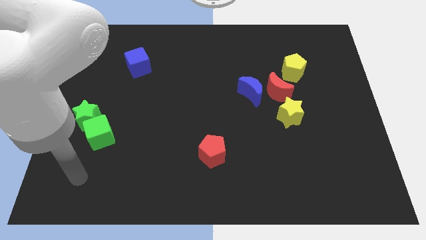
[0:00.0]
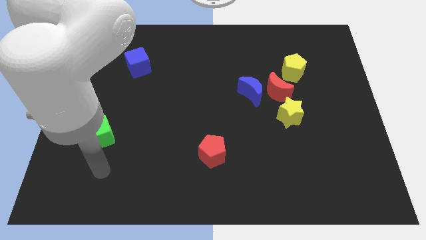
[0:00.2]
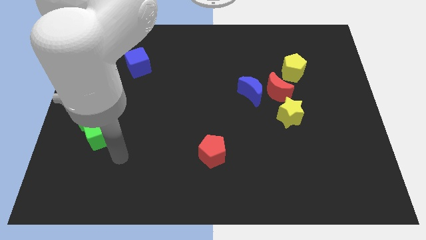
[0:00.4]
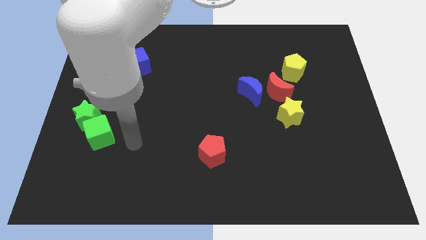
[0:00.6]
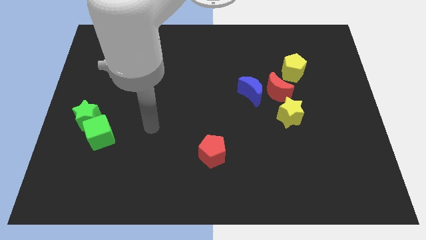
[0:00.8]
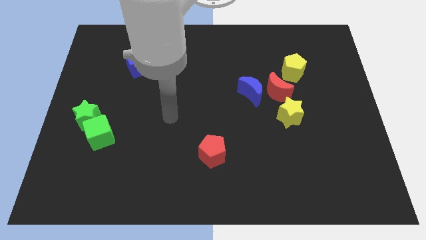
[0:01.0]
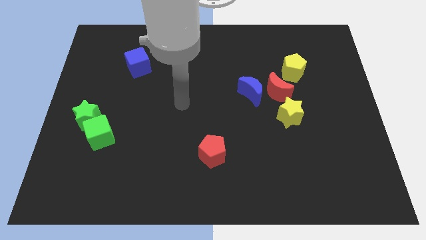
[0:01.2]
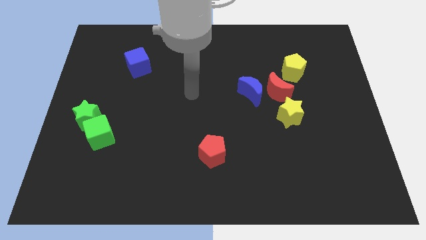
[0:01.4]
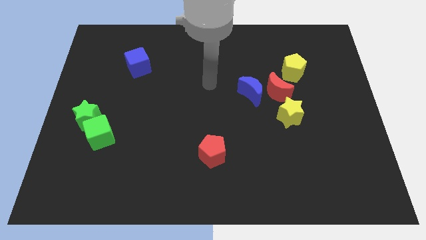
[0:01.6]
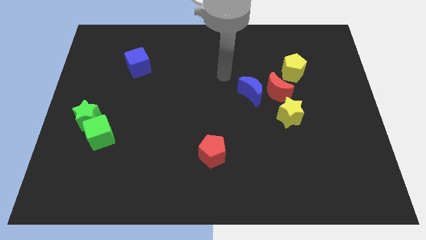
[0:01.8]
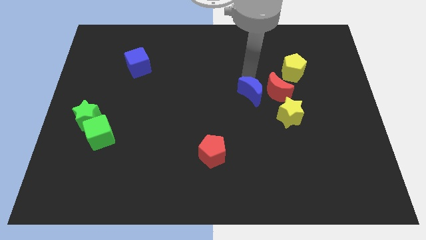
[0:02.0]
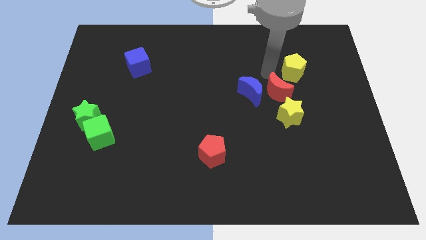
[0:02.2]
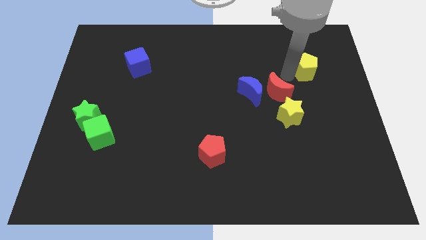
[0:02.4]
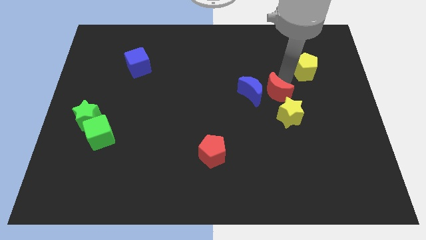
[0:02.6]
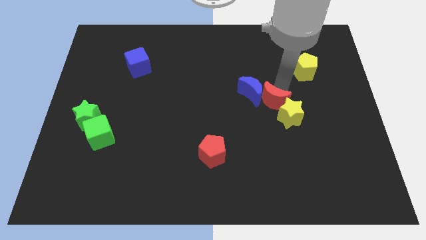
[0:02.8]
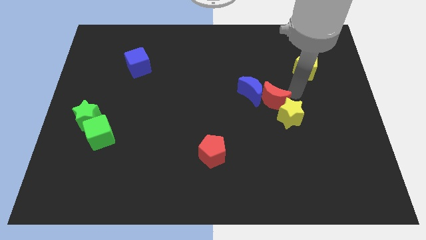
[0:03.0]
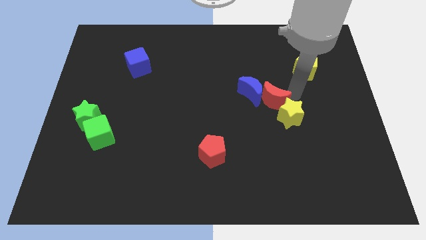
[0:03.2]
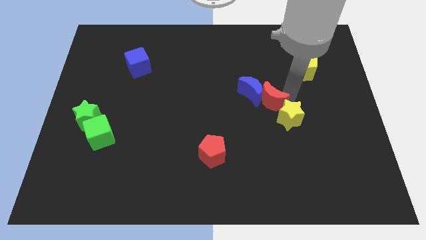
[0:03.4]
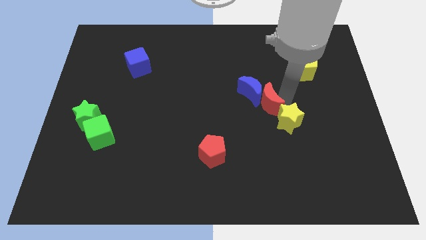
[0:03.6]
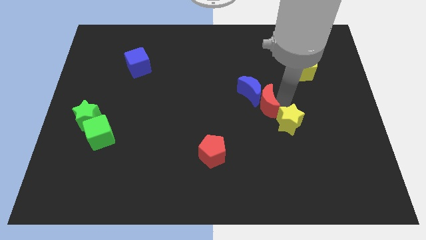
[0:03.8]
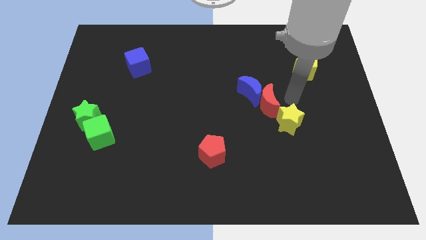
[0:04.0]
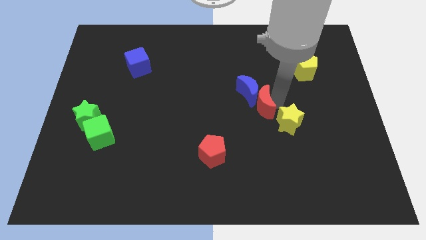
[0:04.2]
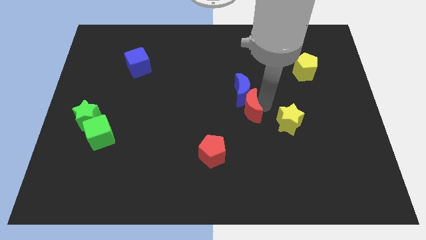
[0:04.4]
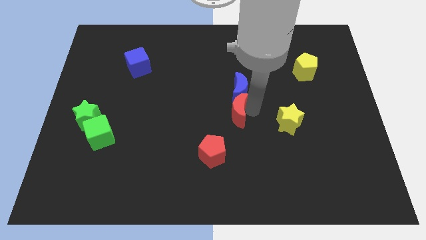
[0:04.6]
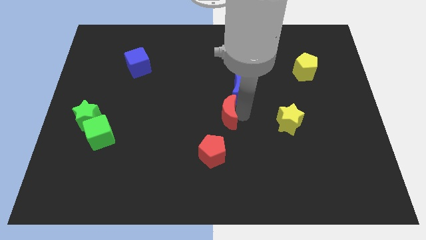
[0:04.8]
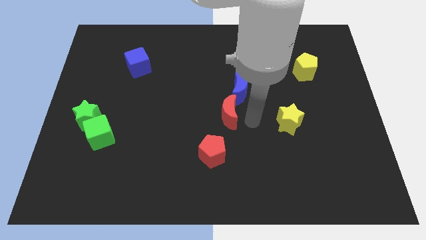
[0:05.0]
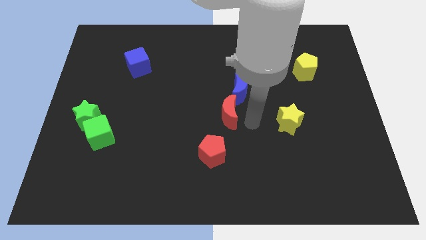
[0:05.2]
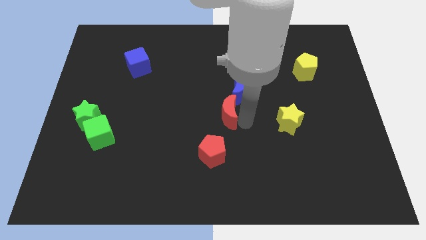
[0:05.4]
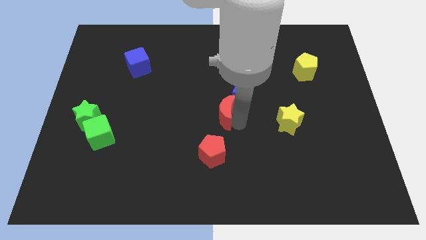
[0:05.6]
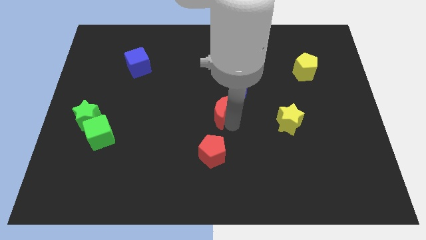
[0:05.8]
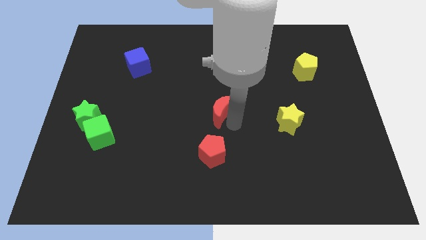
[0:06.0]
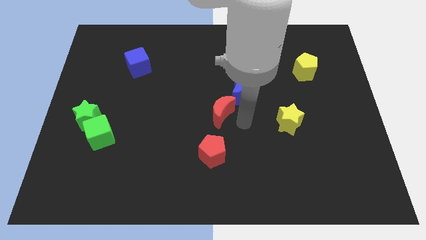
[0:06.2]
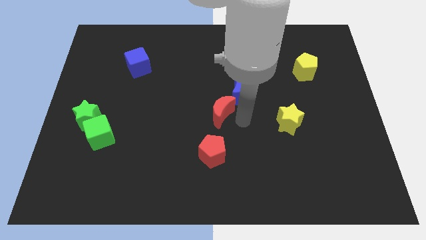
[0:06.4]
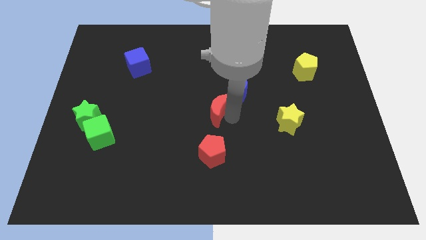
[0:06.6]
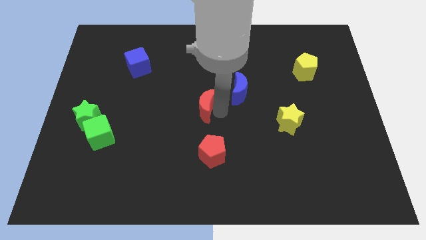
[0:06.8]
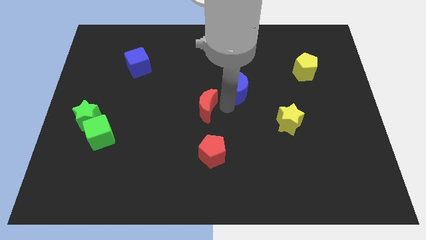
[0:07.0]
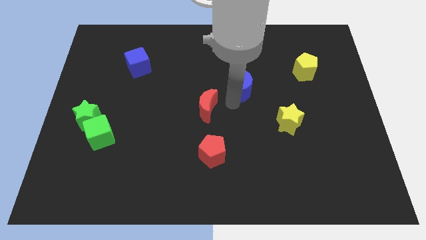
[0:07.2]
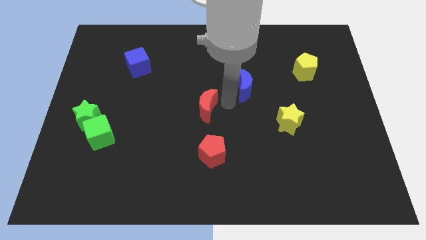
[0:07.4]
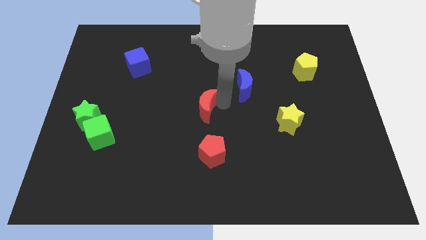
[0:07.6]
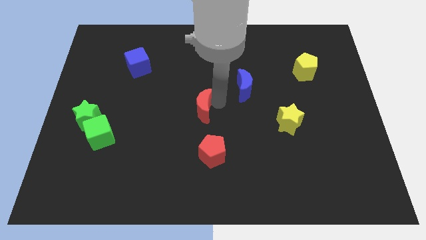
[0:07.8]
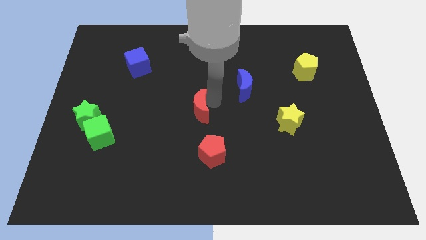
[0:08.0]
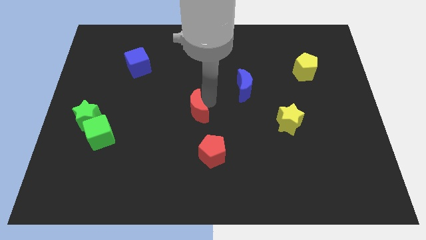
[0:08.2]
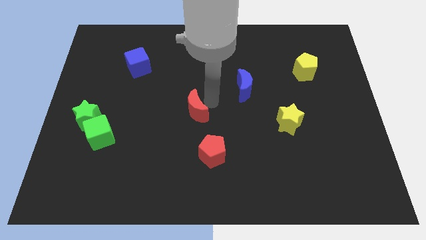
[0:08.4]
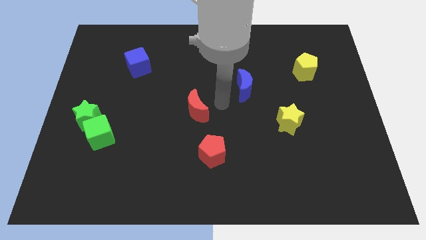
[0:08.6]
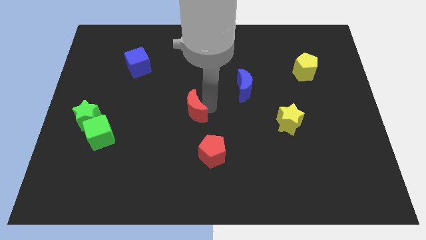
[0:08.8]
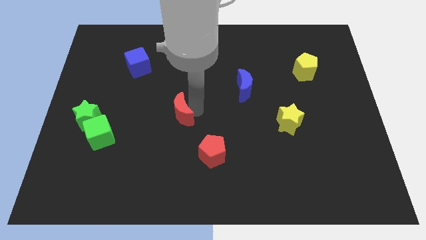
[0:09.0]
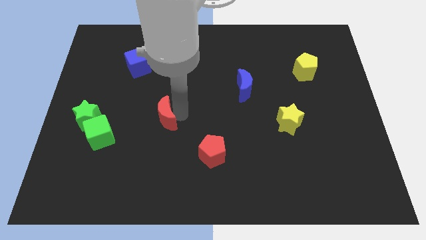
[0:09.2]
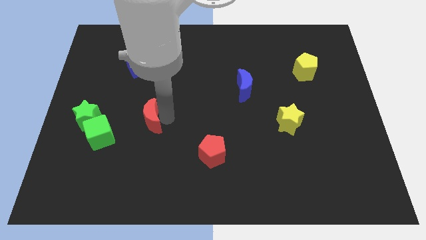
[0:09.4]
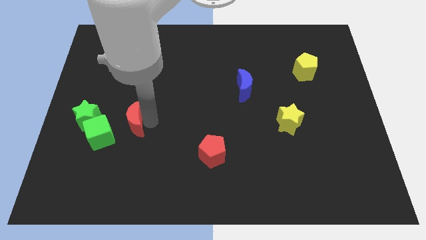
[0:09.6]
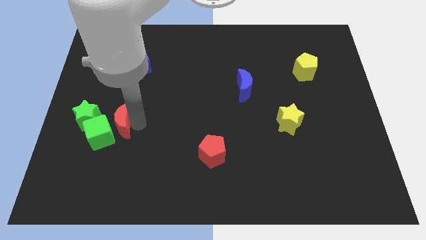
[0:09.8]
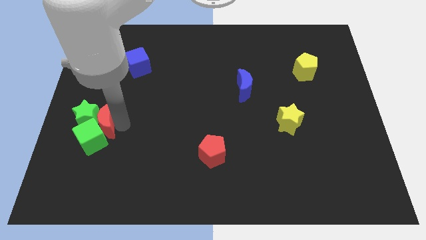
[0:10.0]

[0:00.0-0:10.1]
move the red moon close to the green star

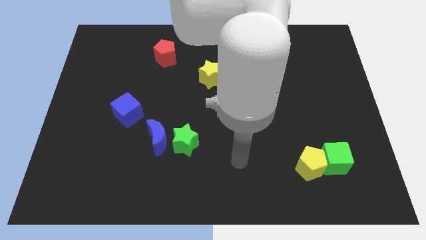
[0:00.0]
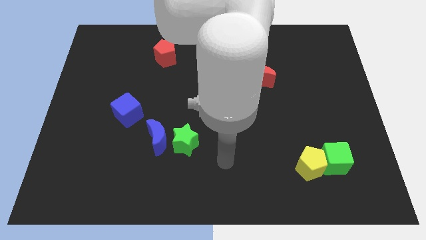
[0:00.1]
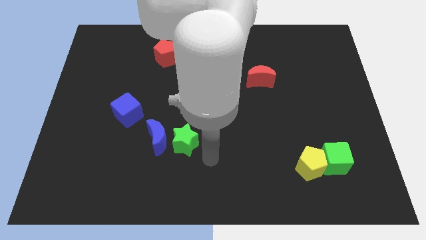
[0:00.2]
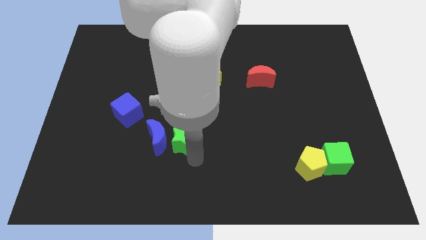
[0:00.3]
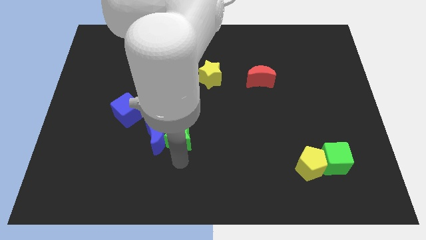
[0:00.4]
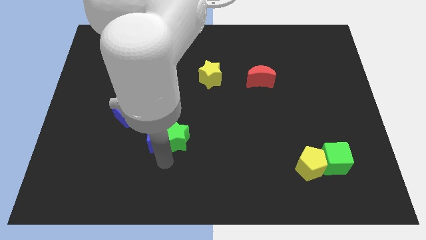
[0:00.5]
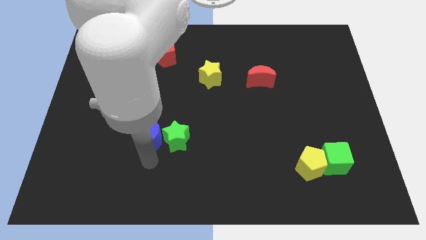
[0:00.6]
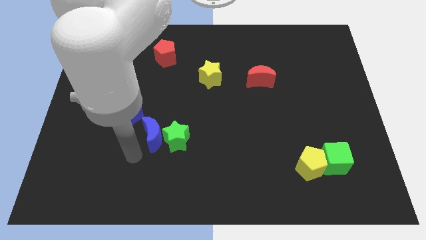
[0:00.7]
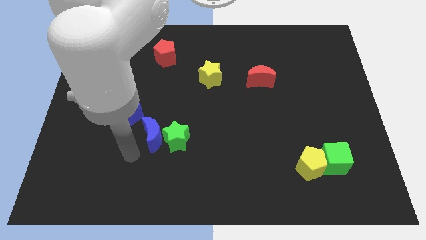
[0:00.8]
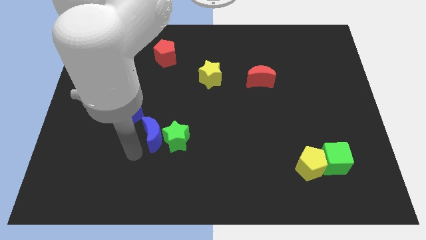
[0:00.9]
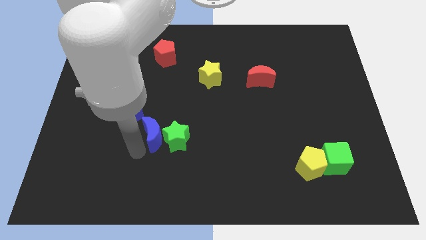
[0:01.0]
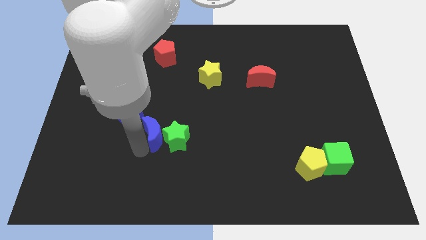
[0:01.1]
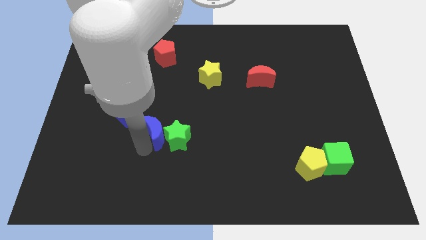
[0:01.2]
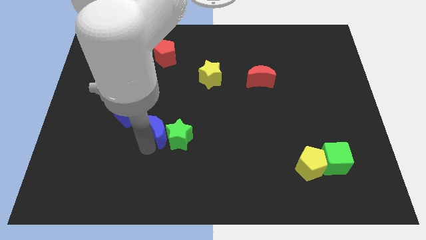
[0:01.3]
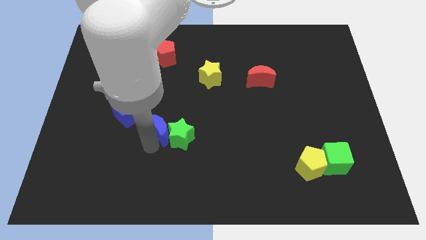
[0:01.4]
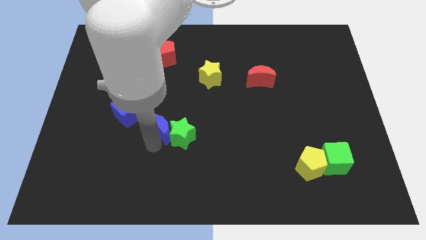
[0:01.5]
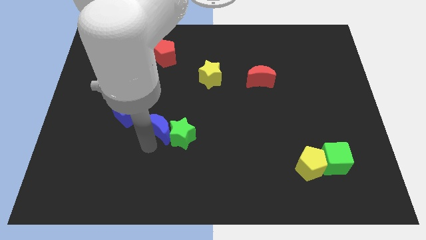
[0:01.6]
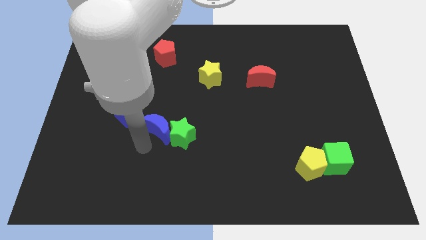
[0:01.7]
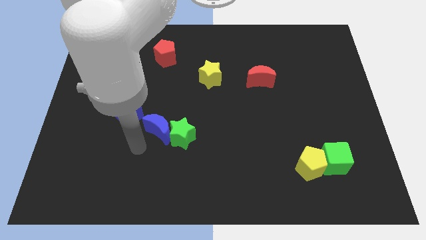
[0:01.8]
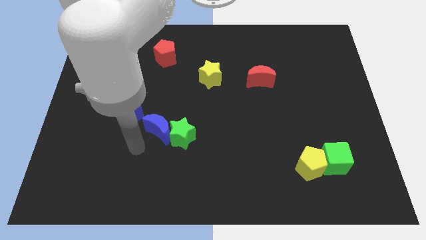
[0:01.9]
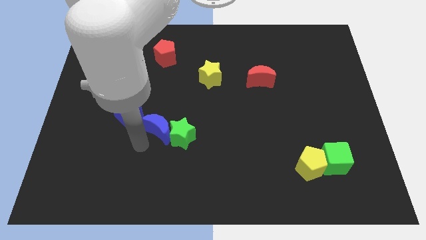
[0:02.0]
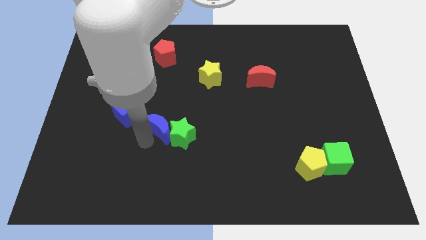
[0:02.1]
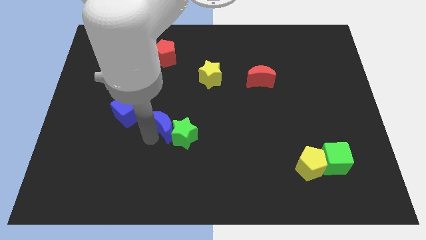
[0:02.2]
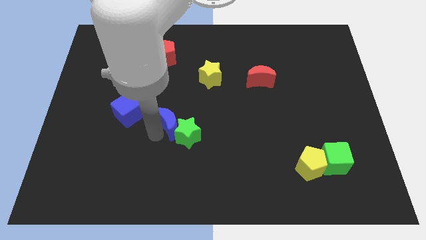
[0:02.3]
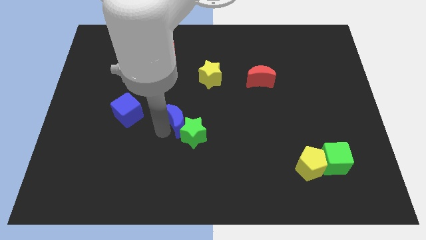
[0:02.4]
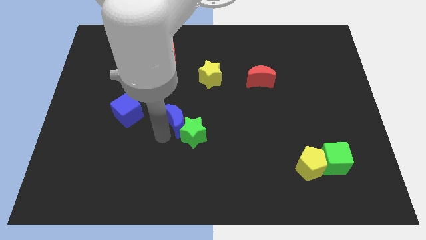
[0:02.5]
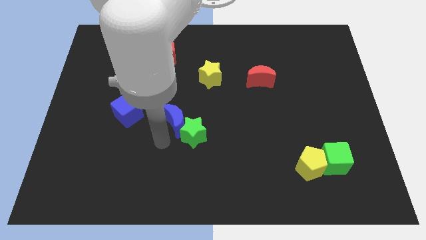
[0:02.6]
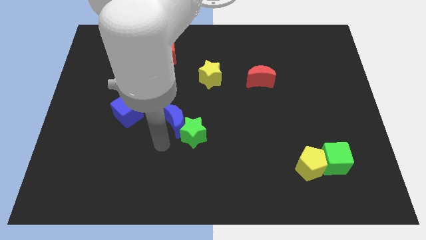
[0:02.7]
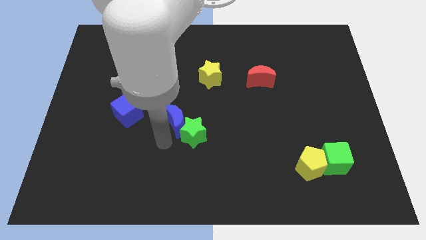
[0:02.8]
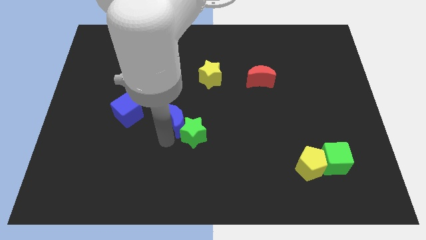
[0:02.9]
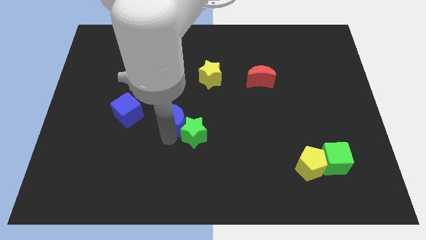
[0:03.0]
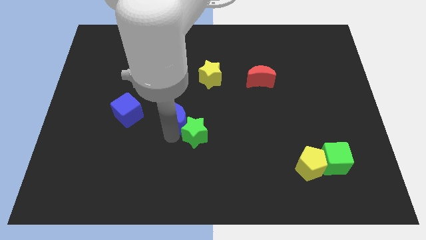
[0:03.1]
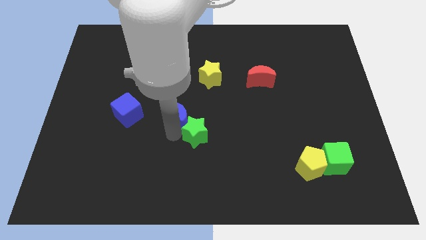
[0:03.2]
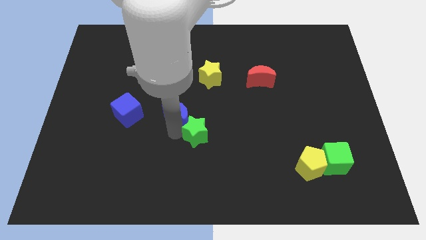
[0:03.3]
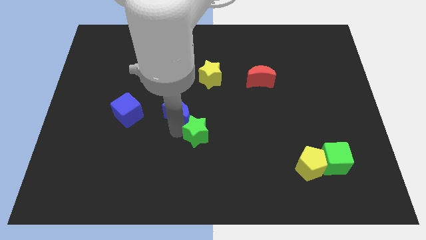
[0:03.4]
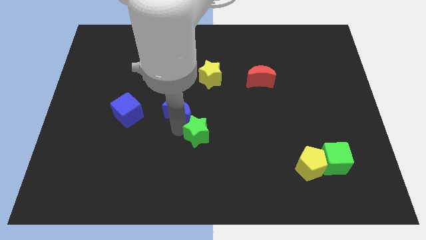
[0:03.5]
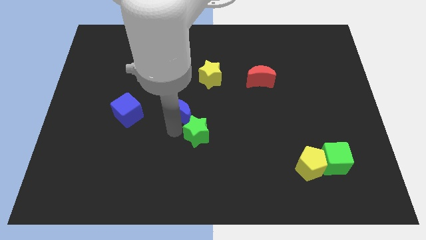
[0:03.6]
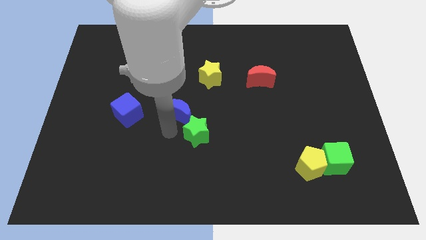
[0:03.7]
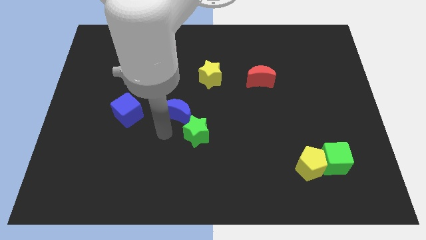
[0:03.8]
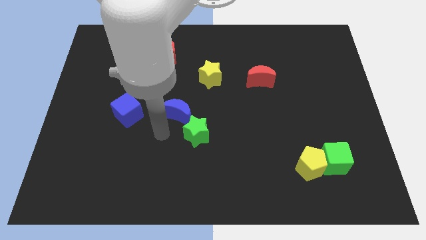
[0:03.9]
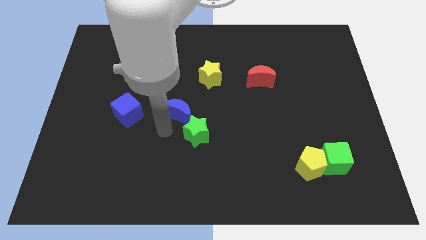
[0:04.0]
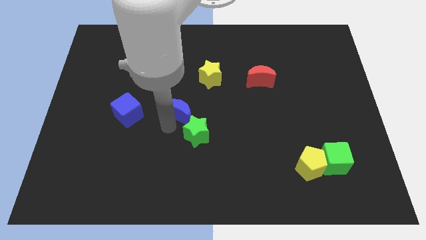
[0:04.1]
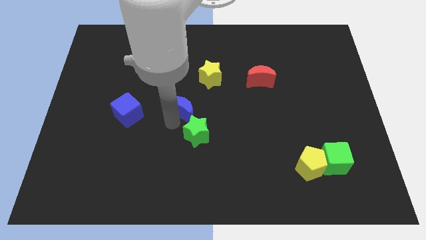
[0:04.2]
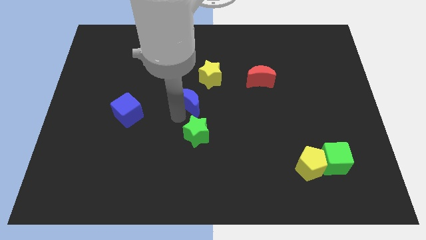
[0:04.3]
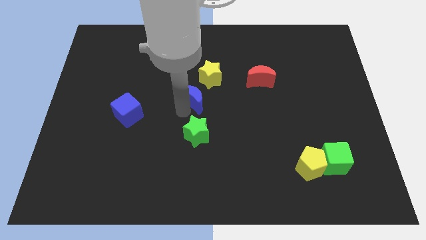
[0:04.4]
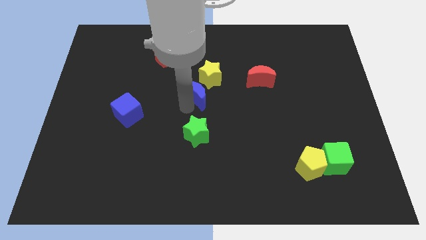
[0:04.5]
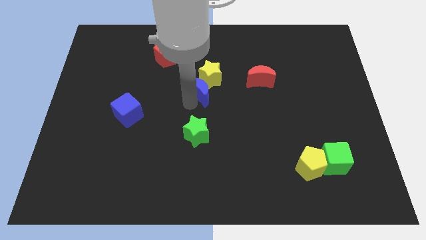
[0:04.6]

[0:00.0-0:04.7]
slide the blue moon towards the yellow star
